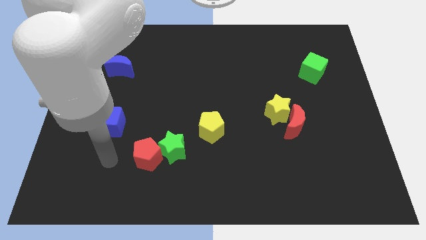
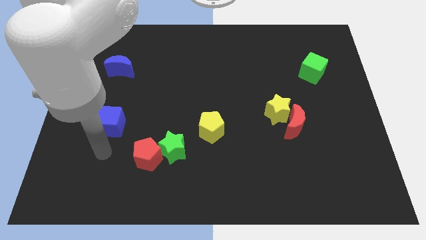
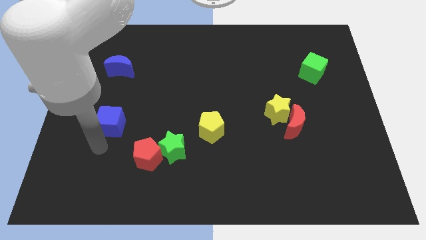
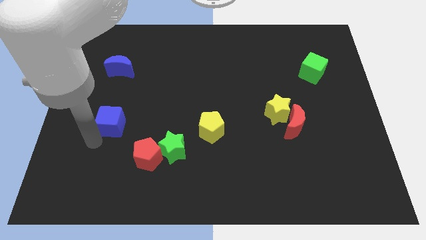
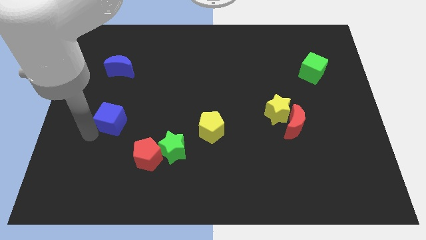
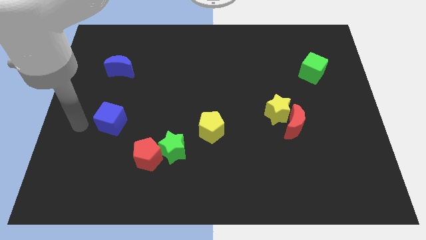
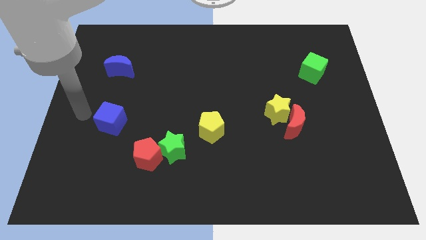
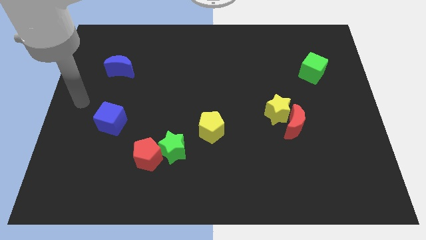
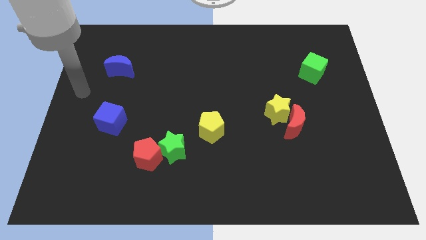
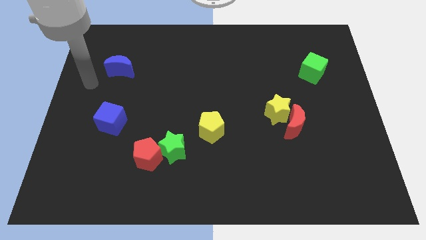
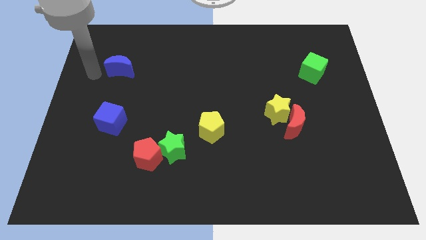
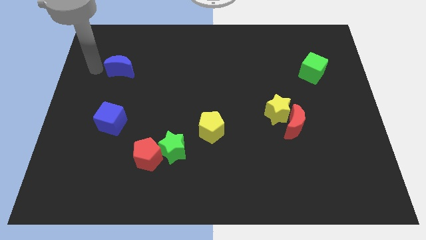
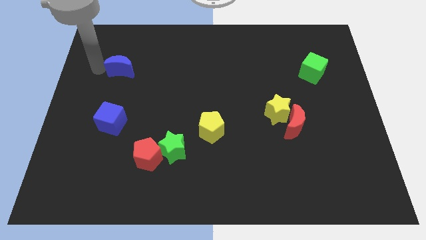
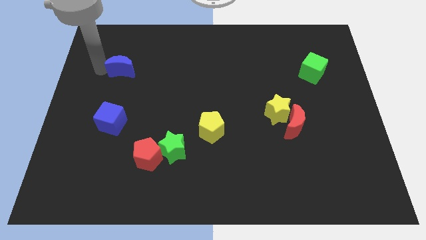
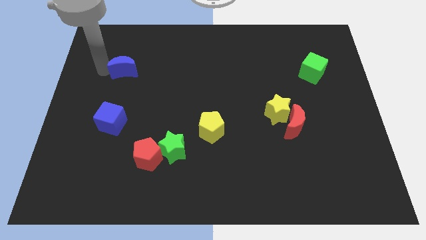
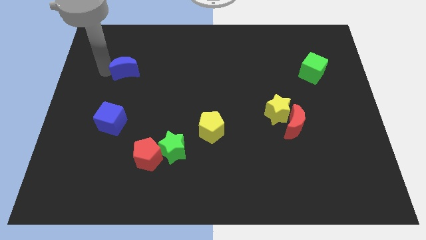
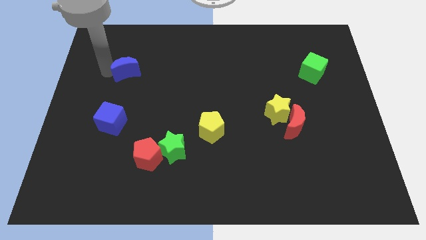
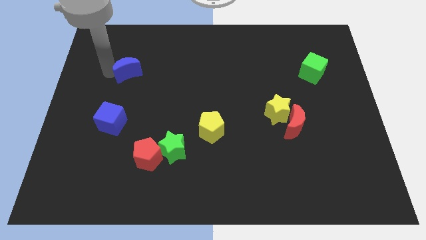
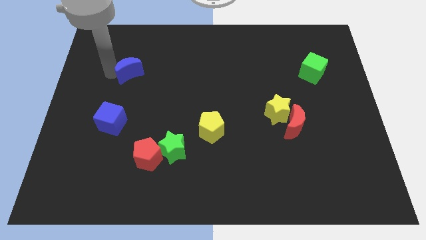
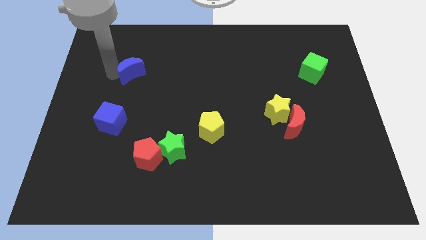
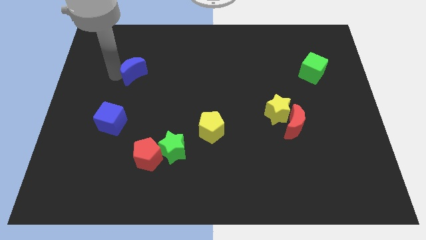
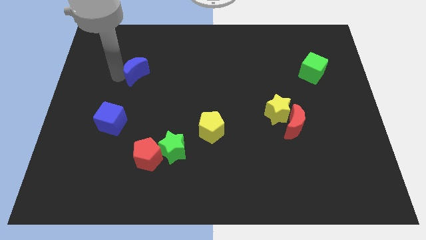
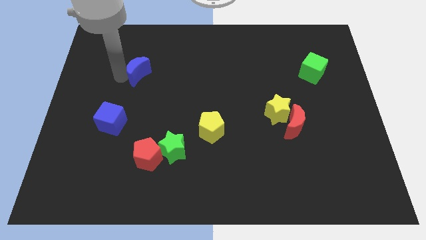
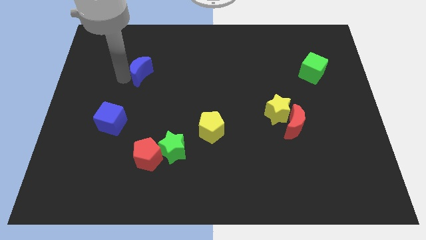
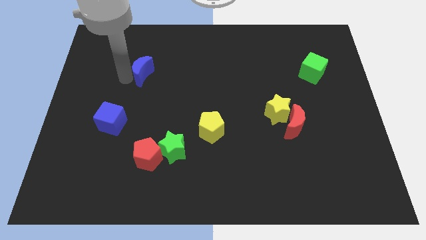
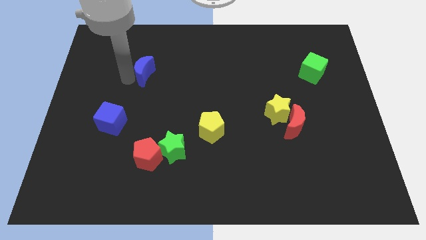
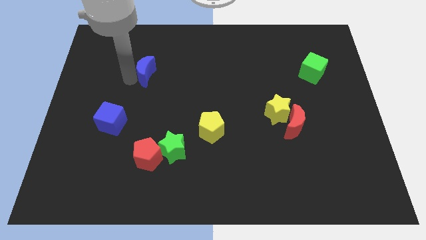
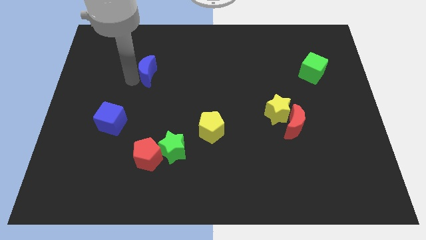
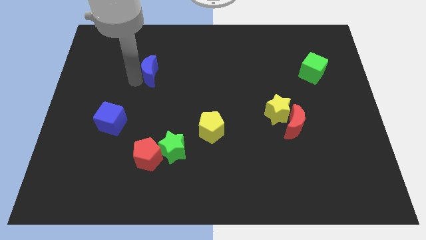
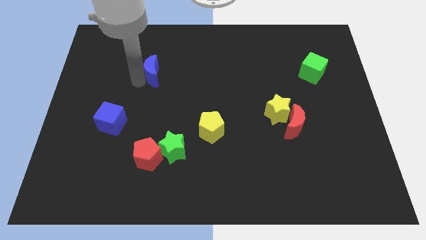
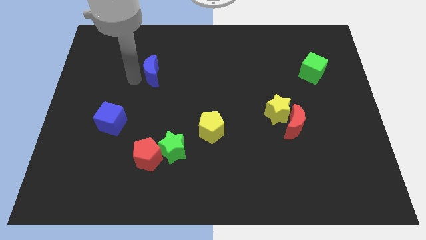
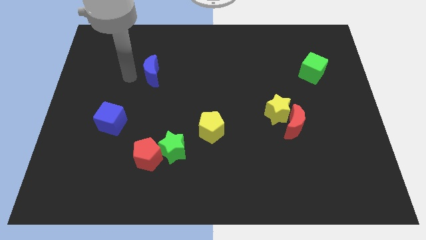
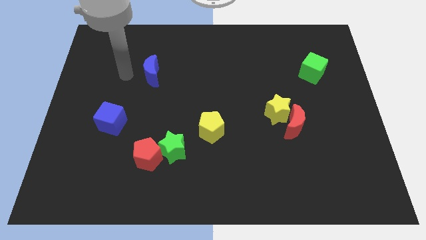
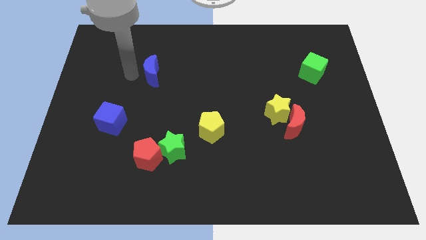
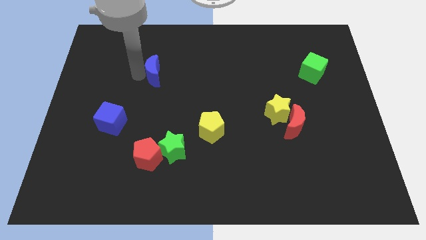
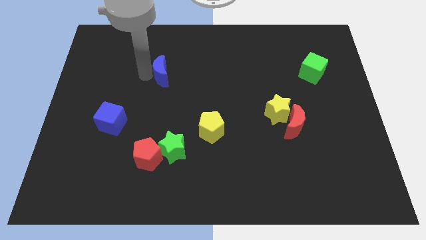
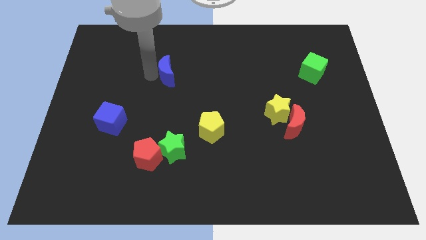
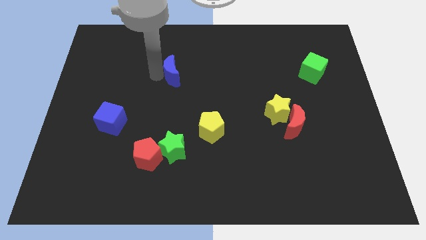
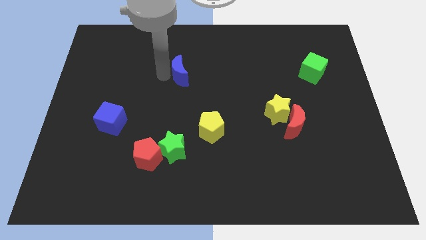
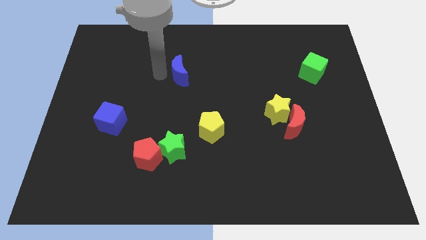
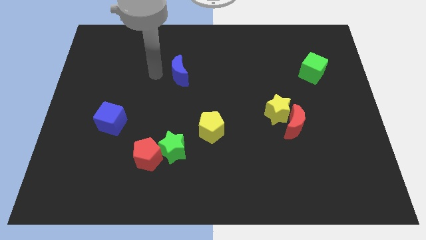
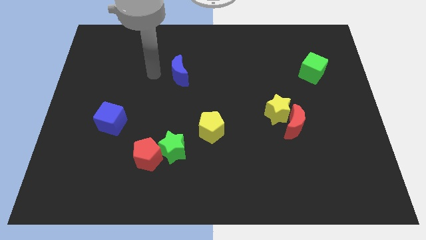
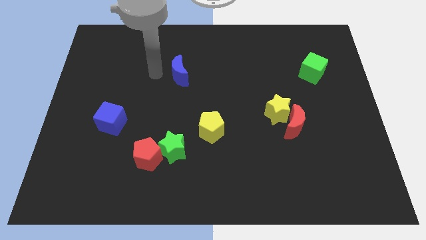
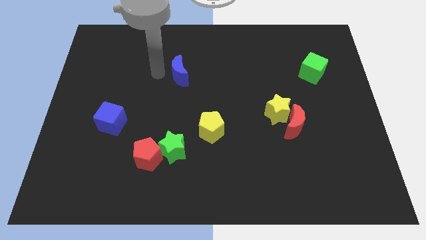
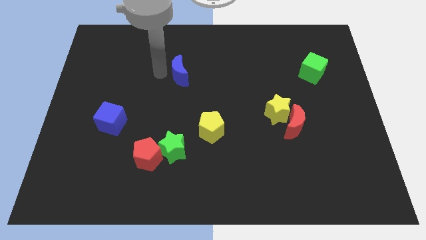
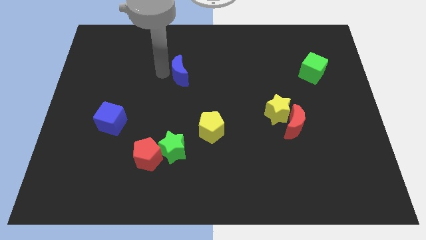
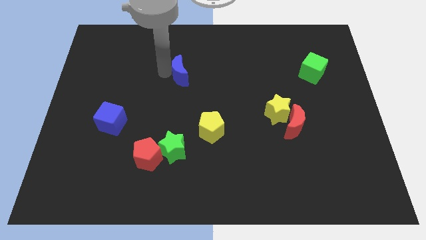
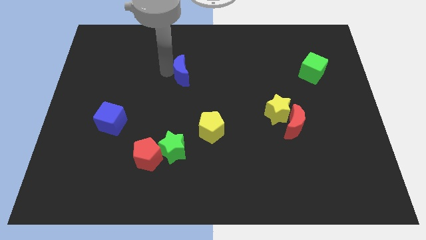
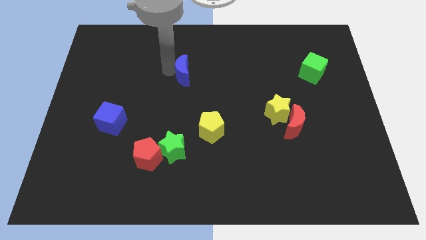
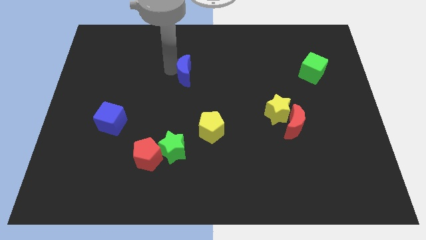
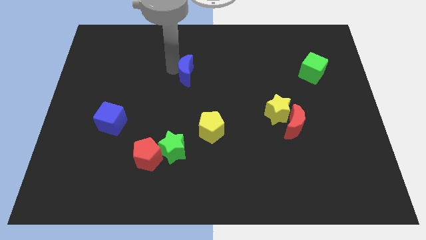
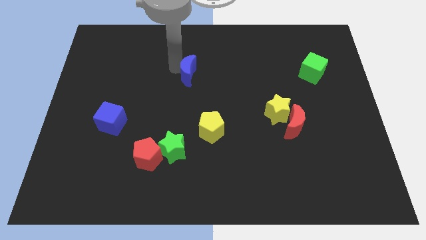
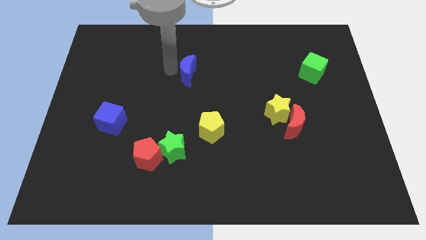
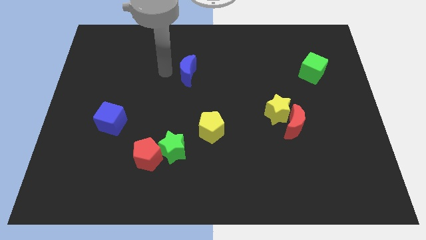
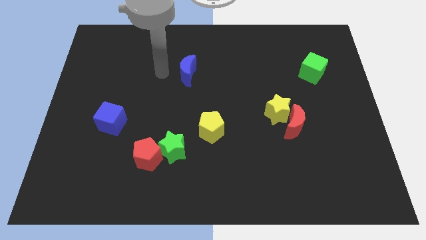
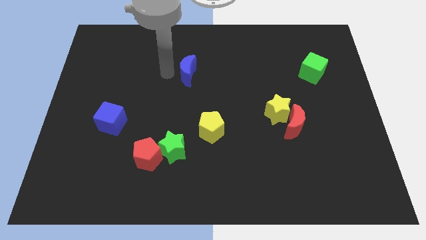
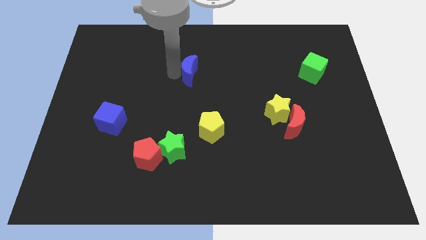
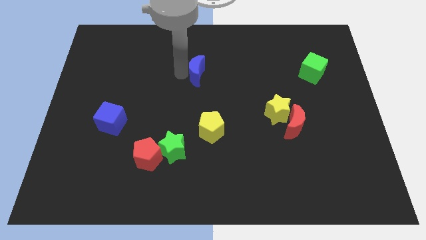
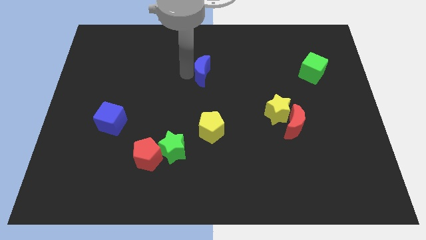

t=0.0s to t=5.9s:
slide the blue moon to the right

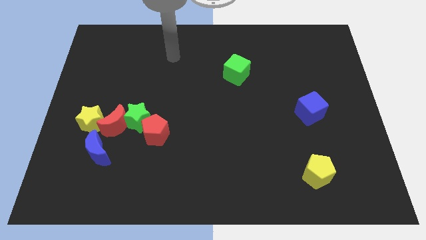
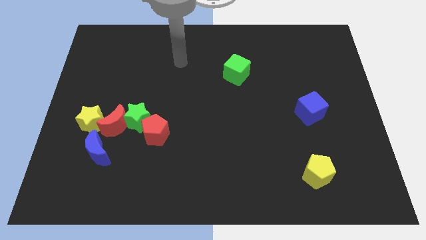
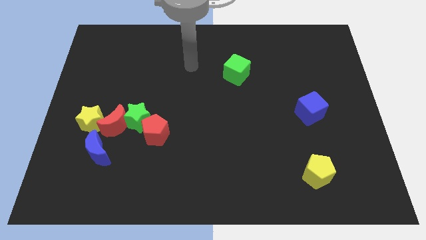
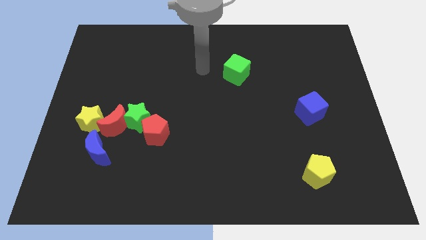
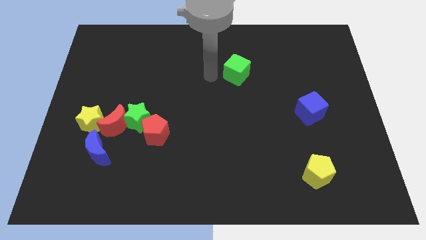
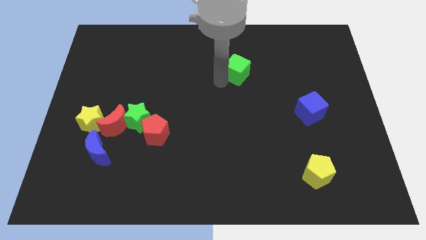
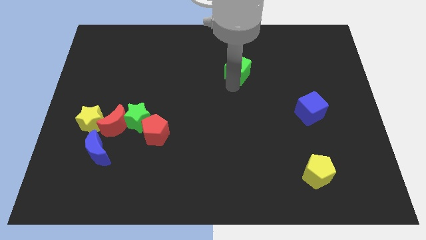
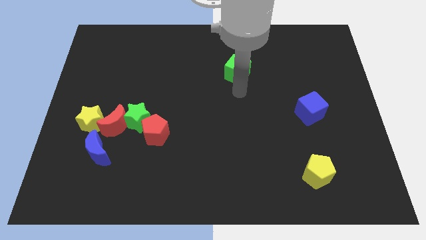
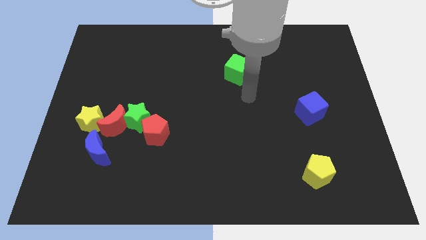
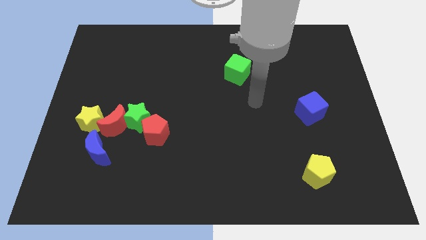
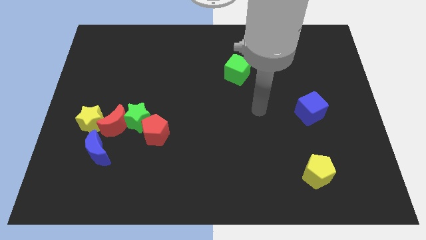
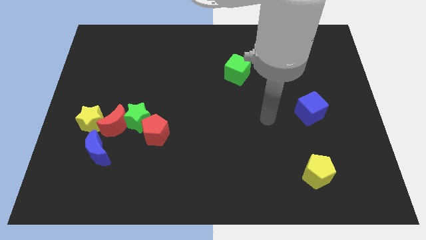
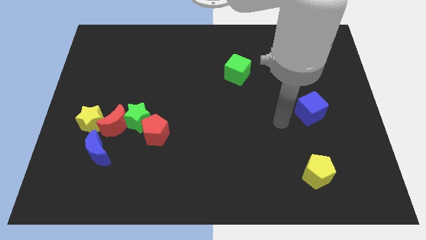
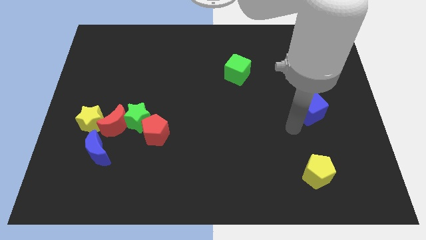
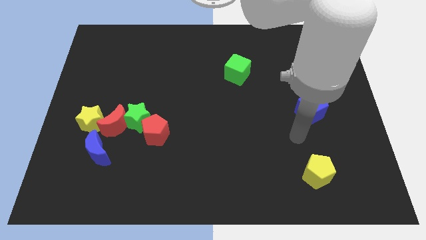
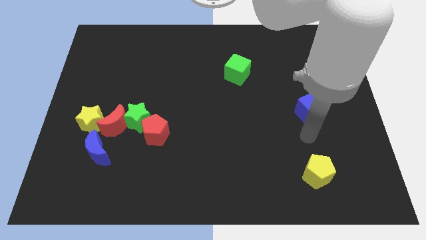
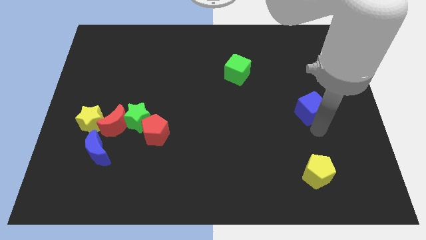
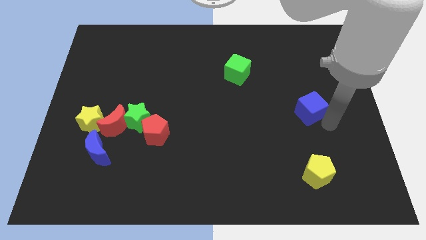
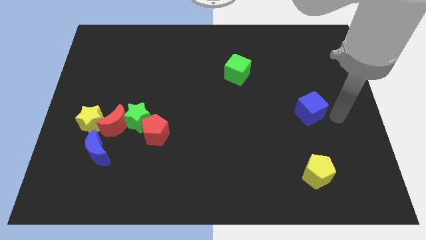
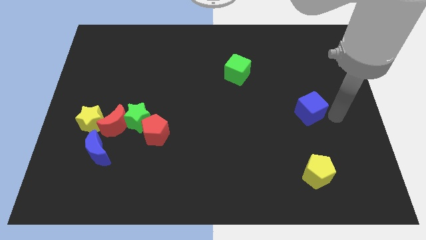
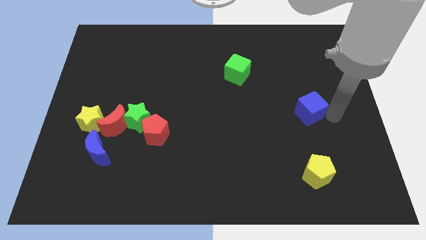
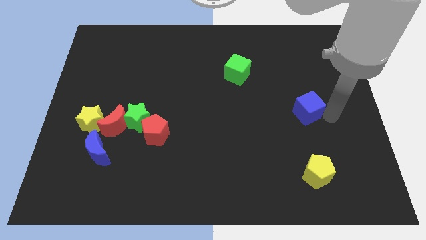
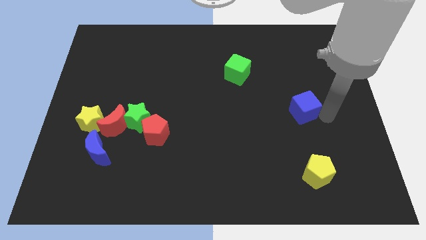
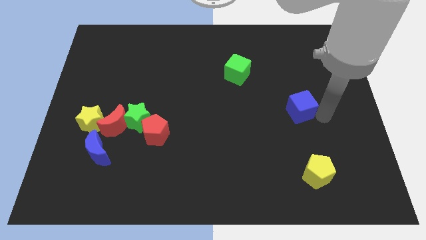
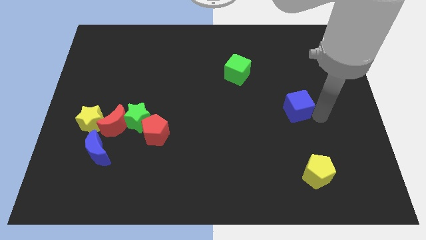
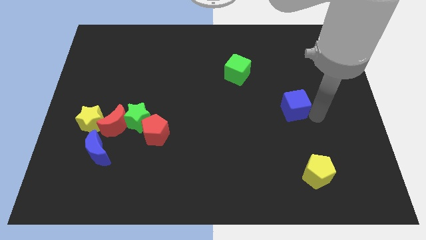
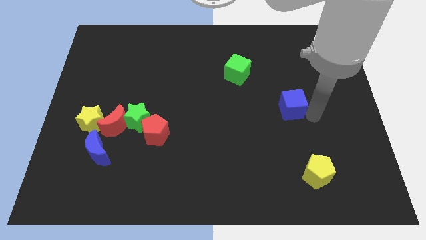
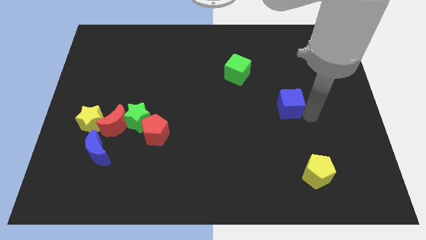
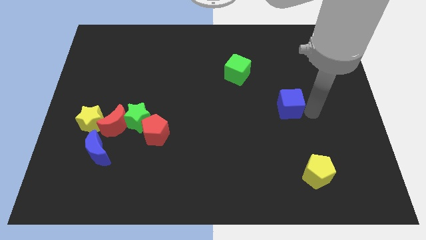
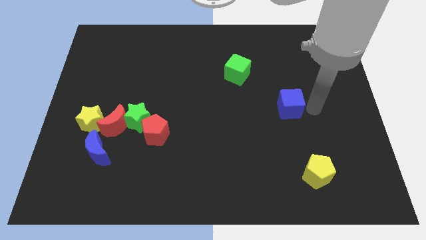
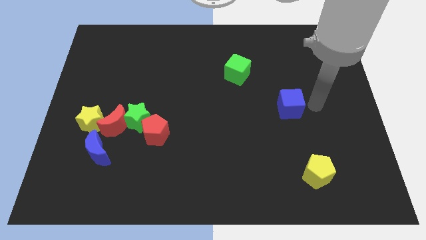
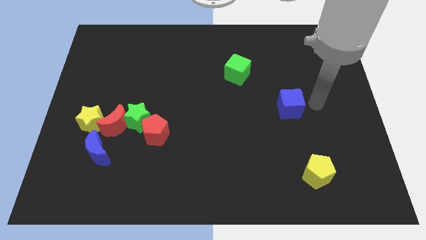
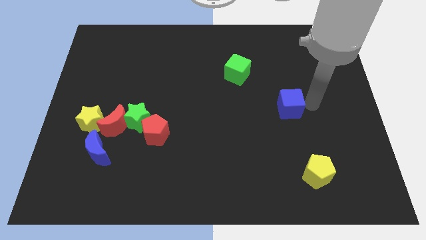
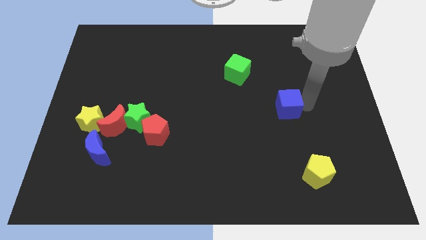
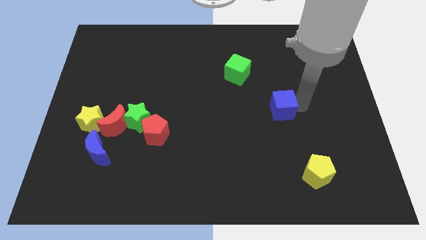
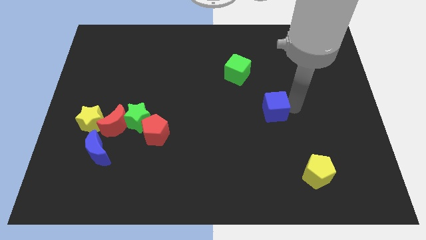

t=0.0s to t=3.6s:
slightly slide the blue cube left
